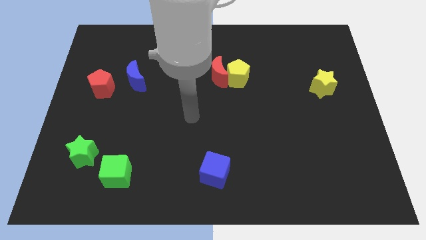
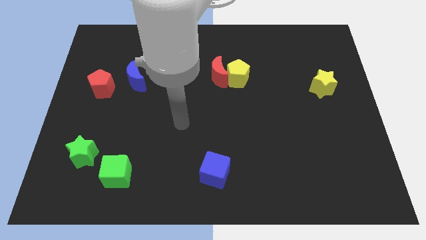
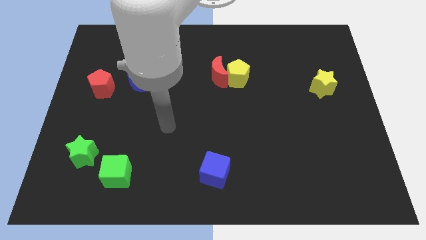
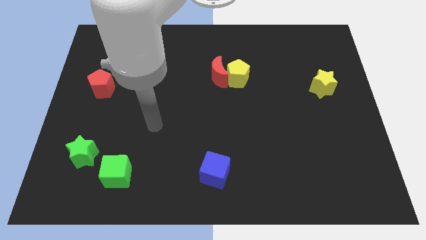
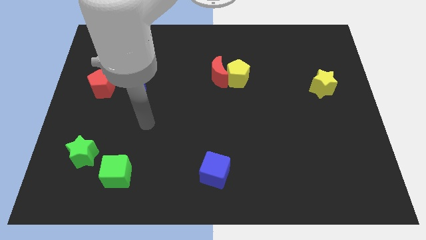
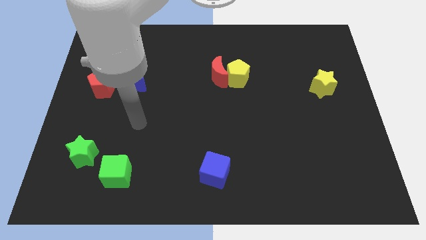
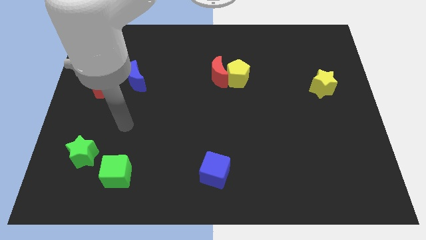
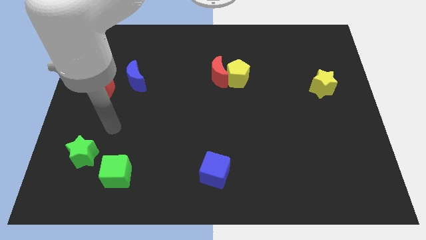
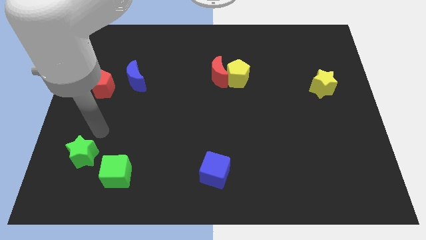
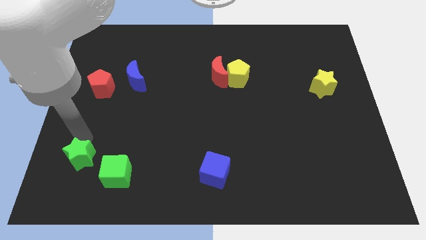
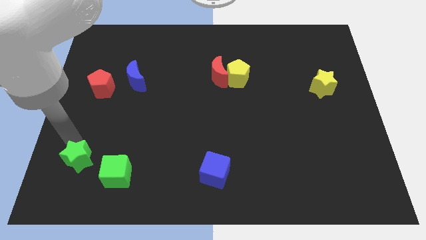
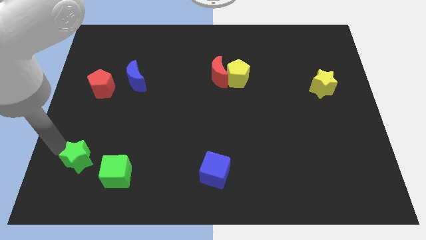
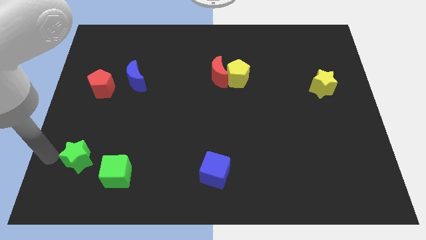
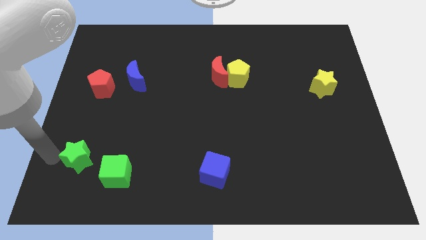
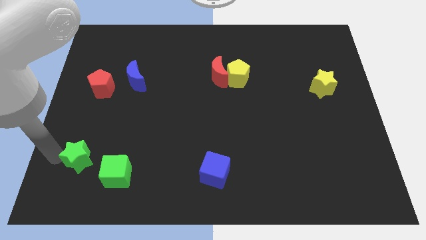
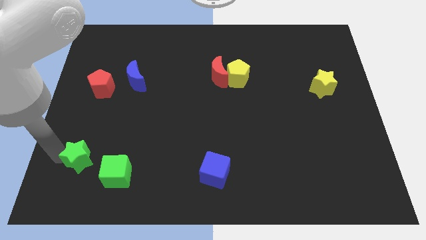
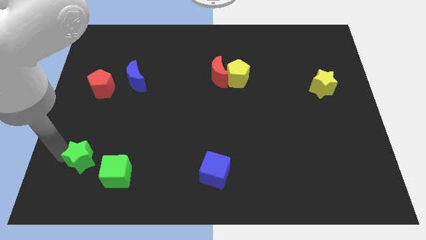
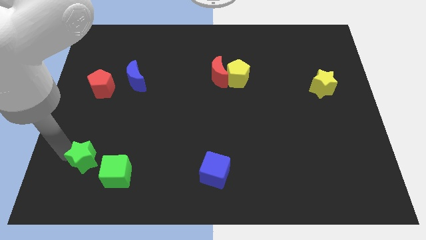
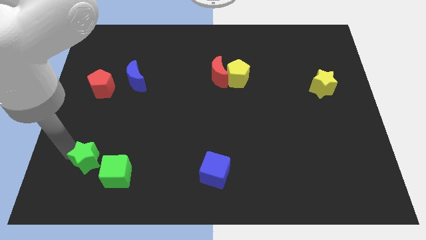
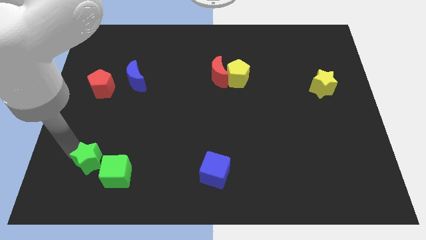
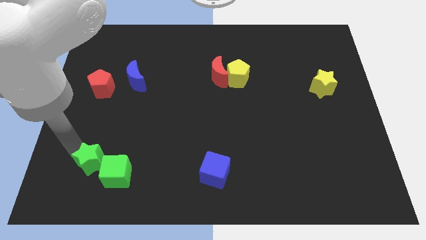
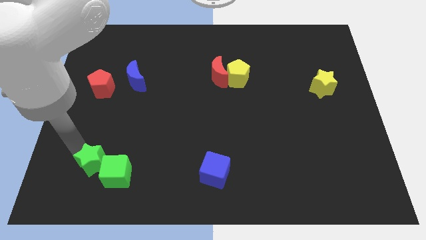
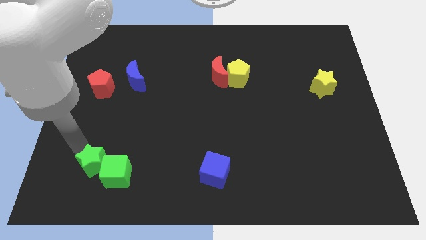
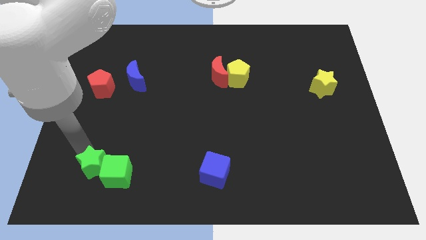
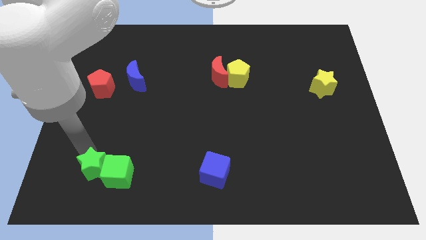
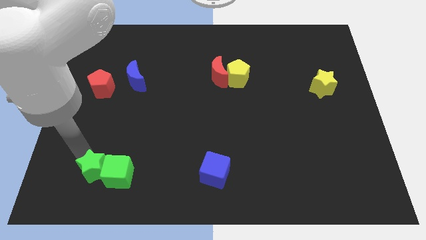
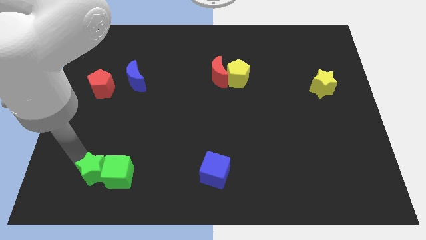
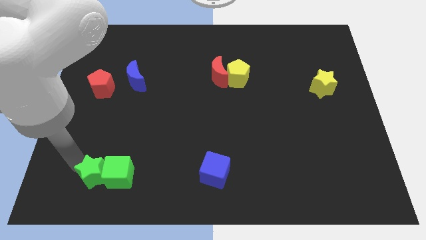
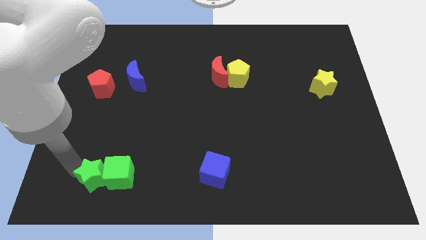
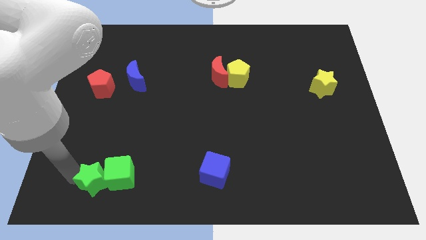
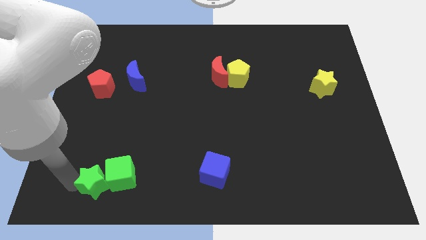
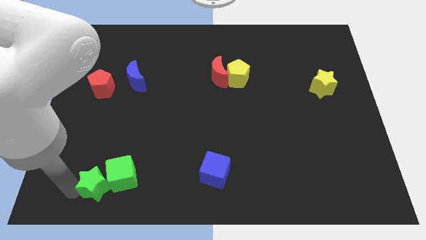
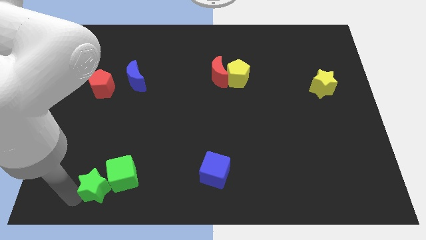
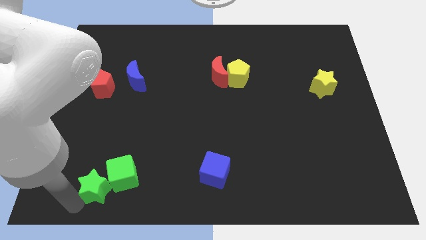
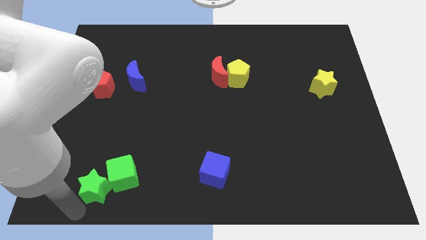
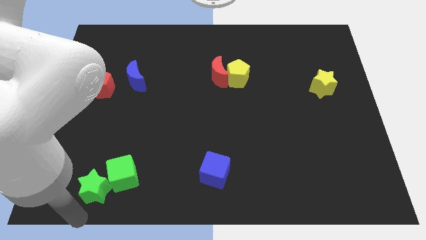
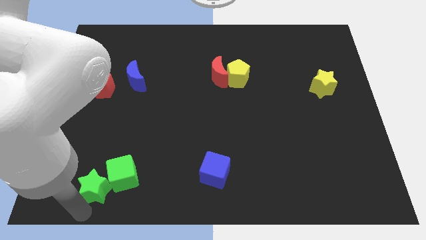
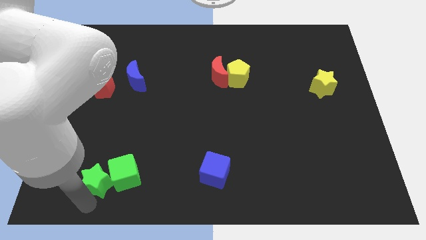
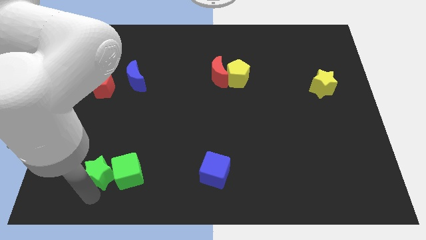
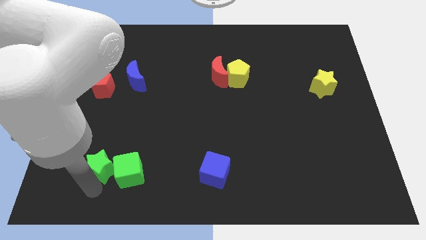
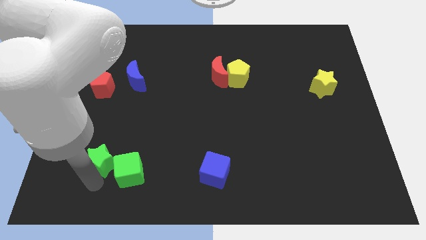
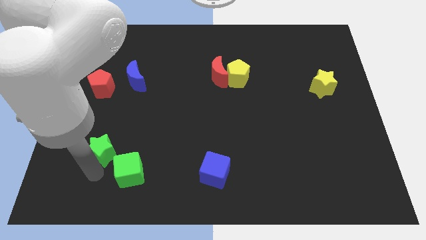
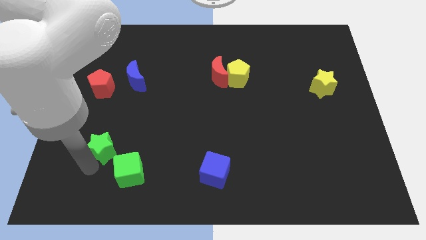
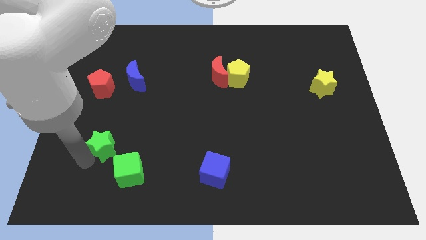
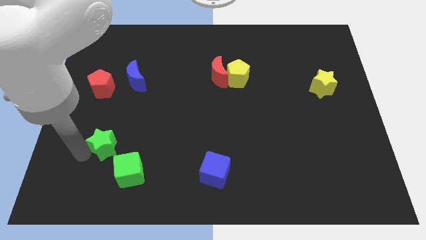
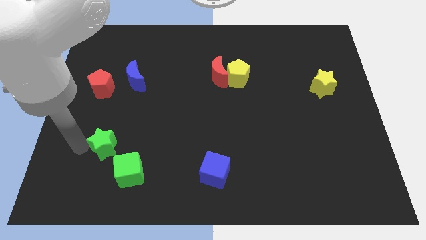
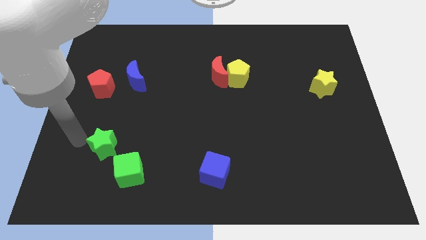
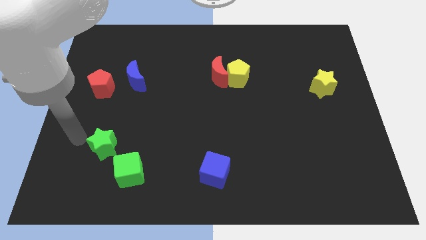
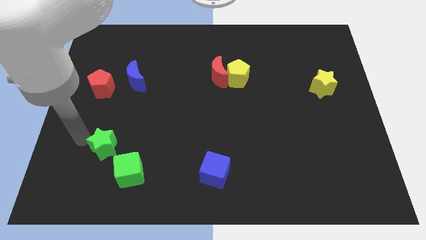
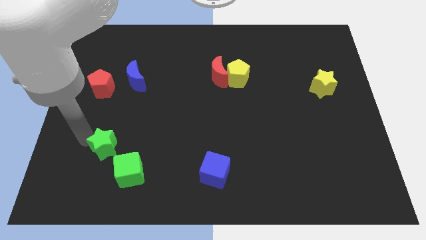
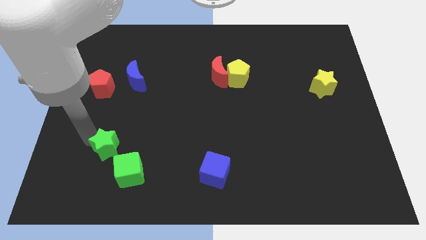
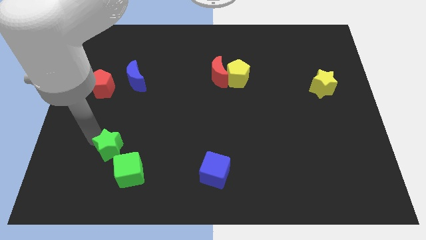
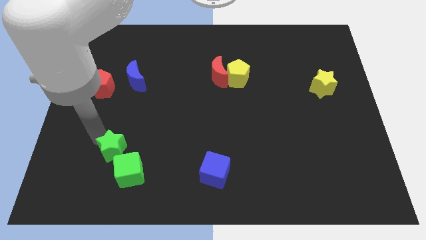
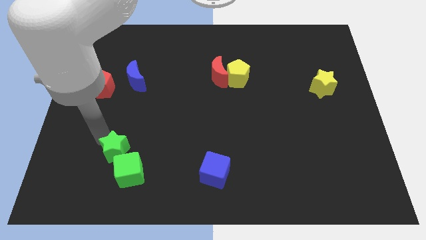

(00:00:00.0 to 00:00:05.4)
slide the green star a bit to the right

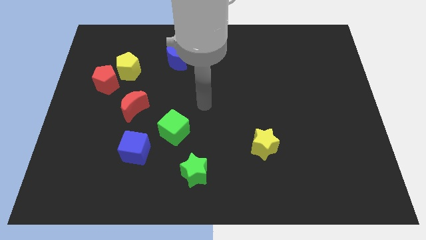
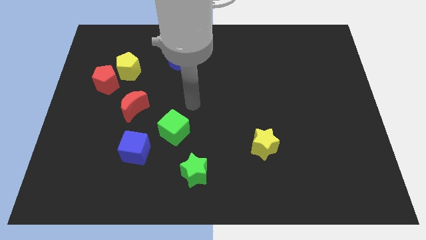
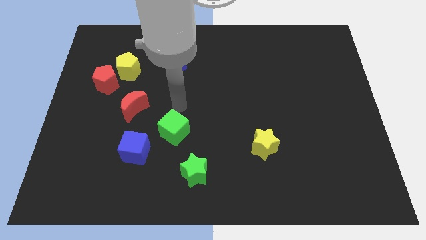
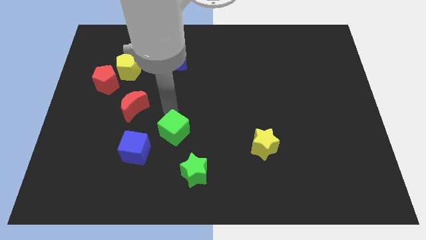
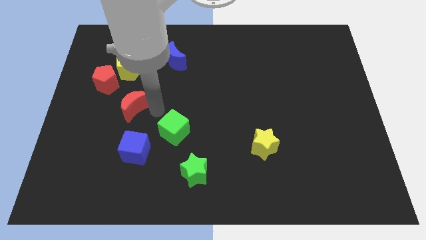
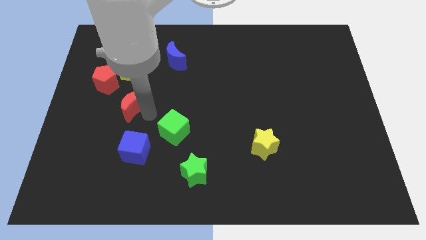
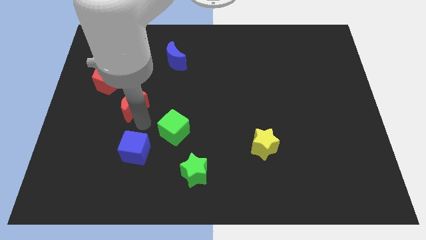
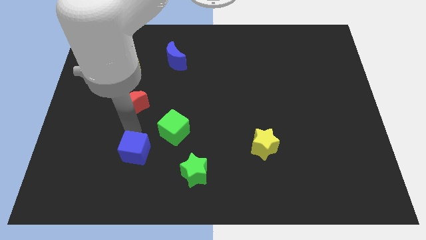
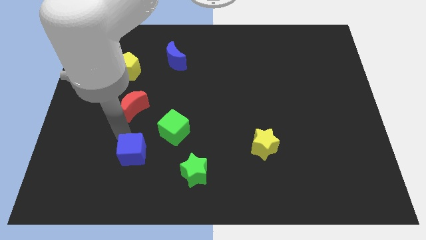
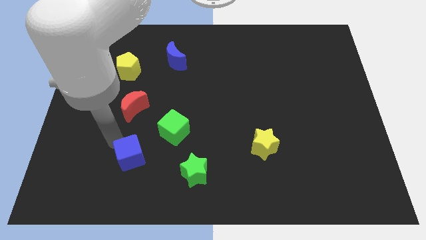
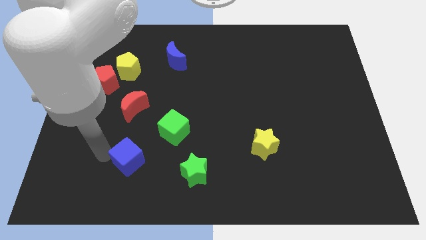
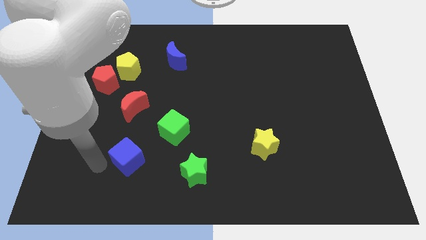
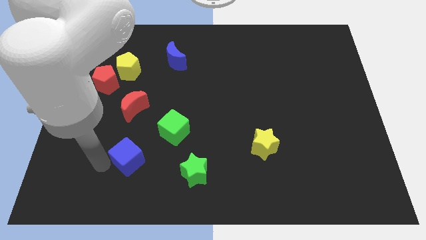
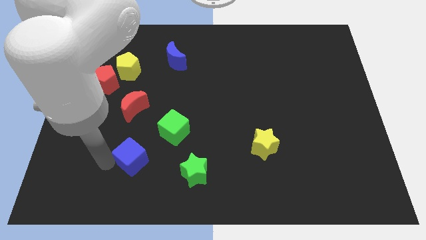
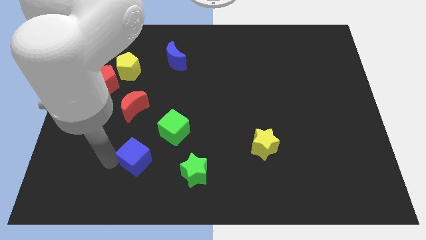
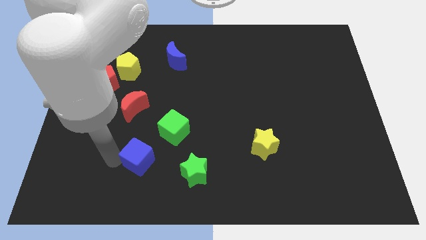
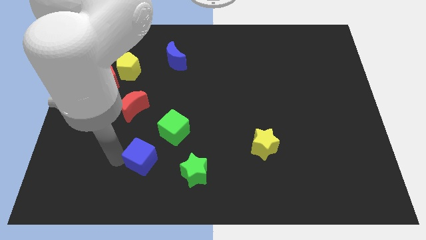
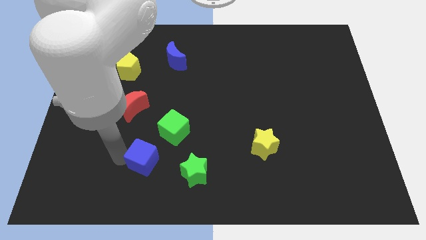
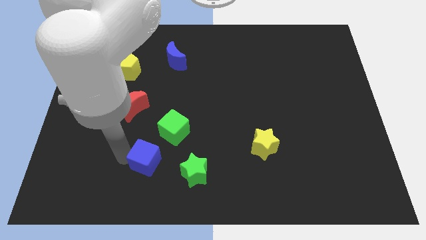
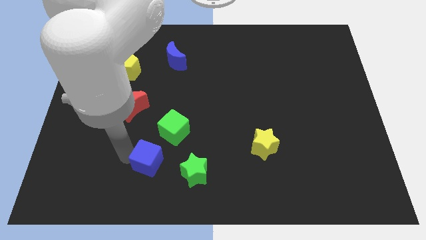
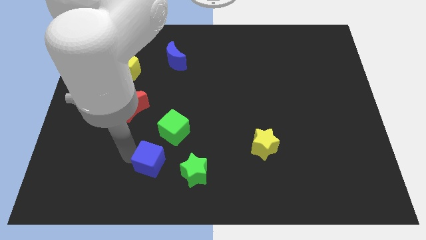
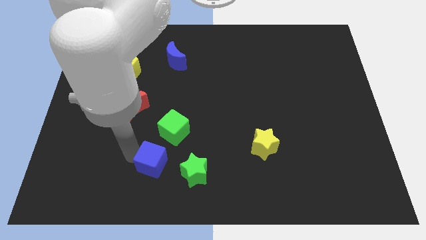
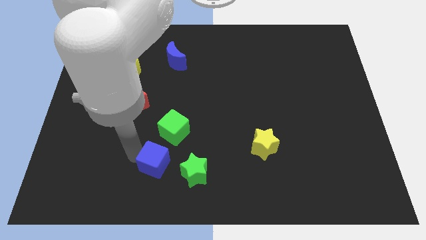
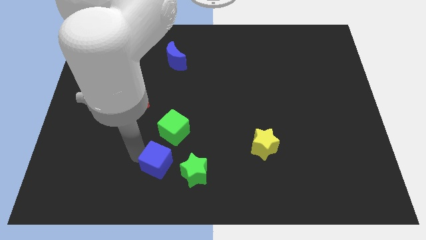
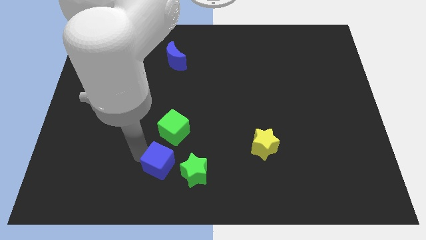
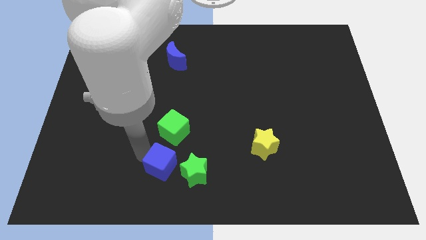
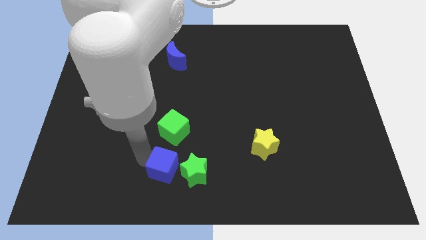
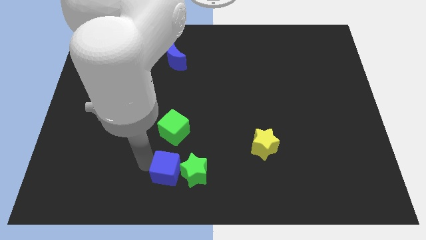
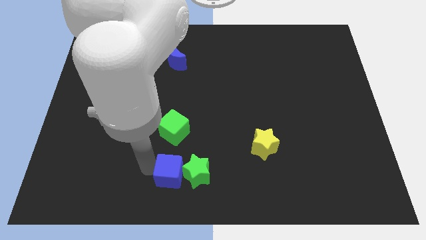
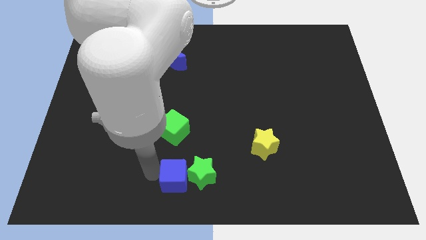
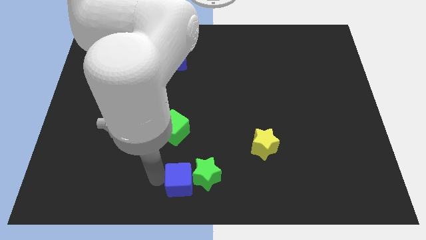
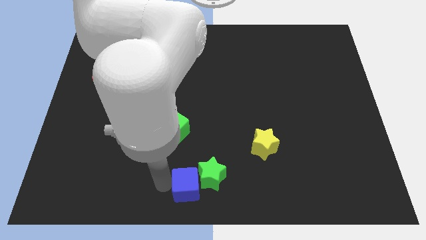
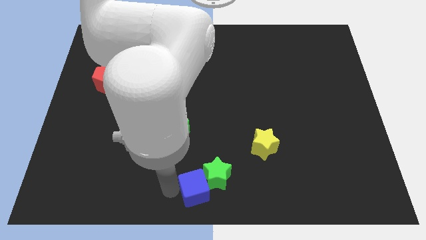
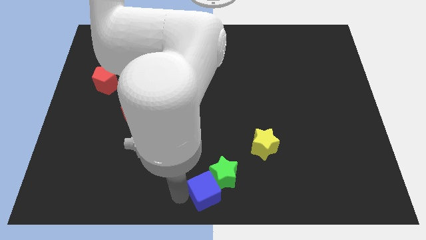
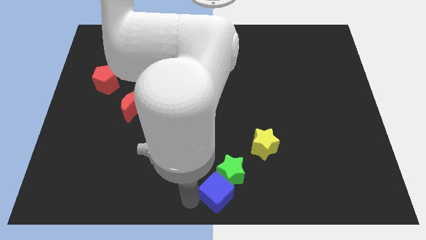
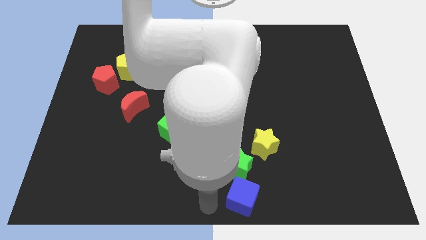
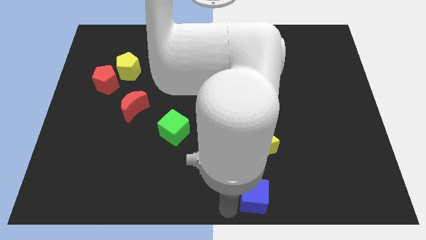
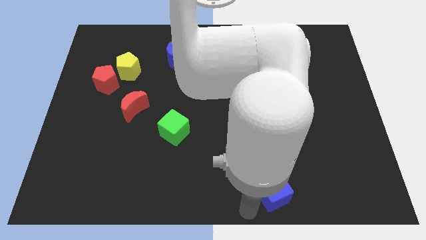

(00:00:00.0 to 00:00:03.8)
move the blue cube right
